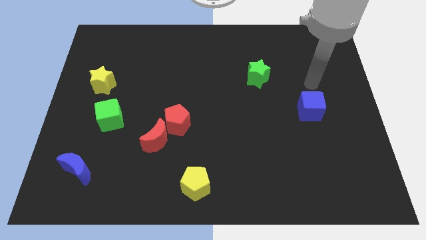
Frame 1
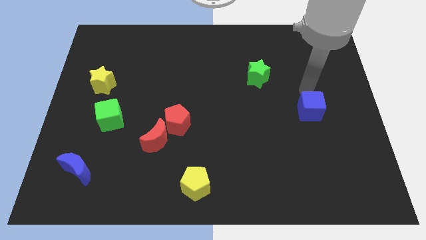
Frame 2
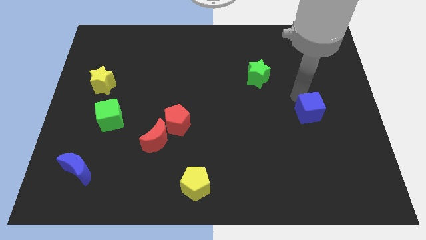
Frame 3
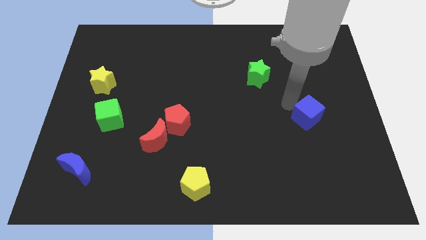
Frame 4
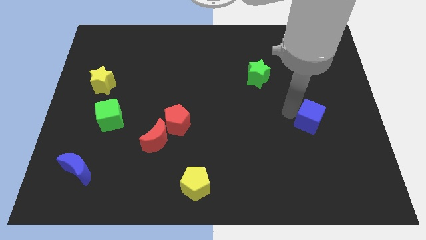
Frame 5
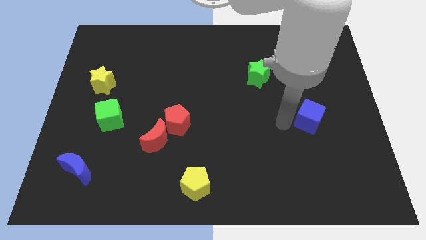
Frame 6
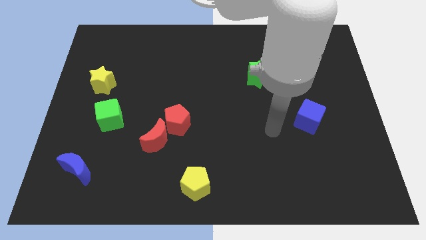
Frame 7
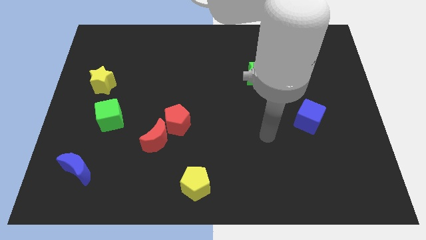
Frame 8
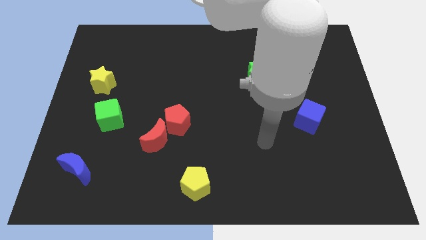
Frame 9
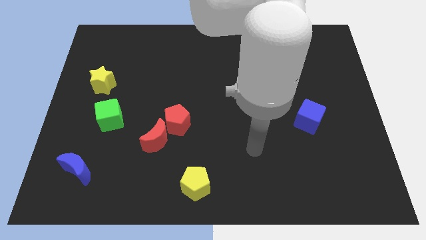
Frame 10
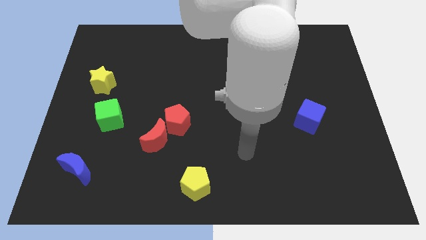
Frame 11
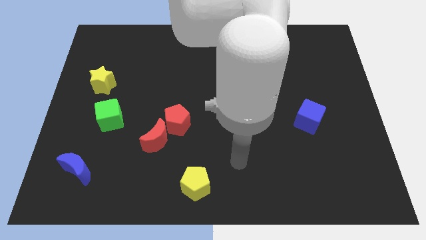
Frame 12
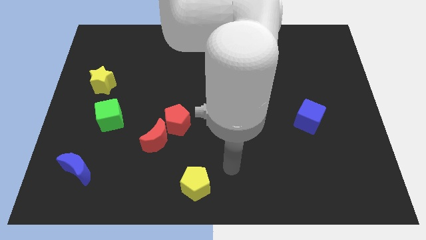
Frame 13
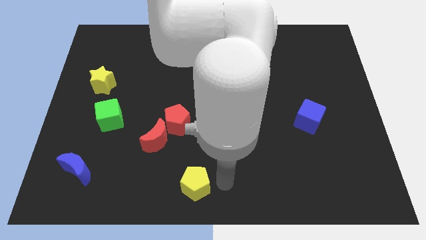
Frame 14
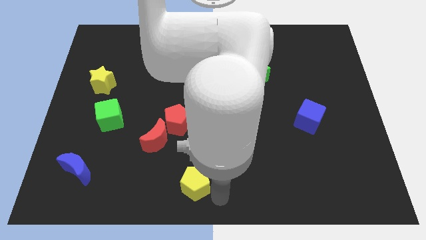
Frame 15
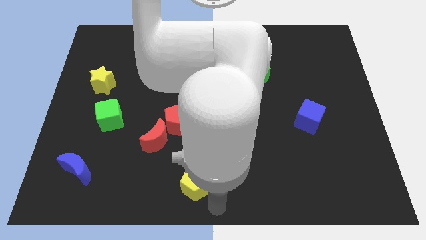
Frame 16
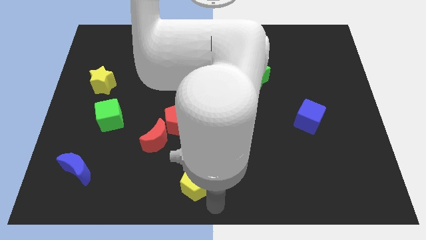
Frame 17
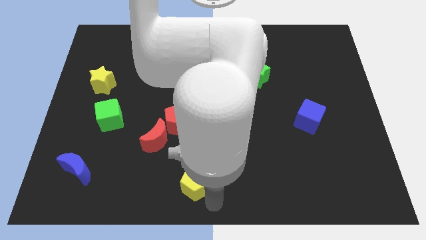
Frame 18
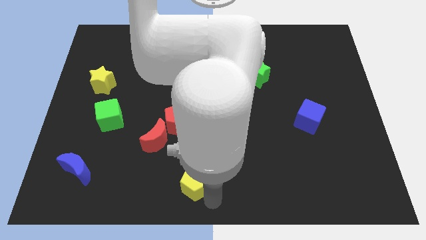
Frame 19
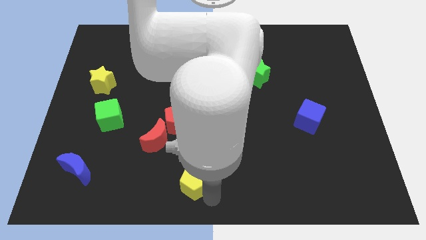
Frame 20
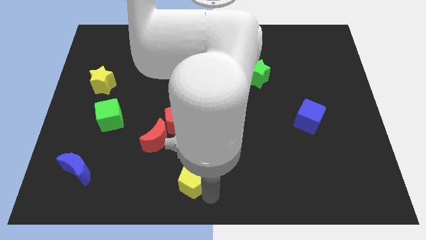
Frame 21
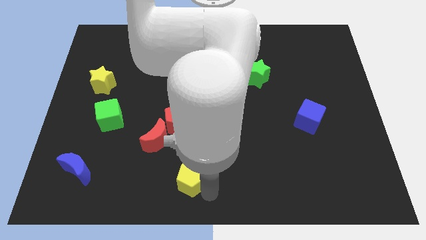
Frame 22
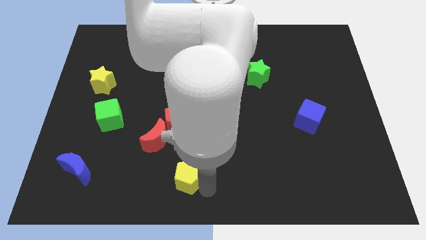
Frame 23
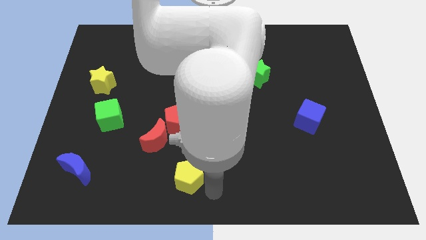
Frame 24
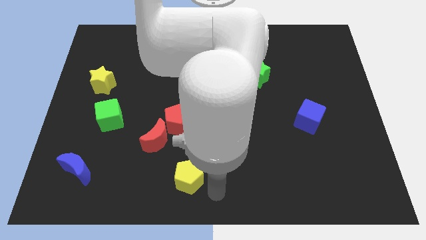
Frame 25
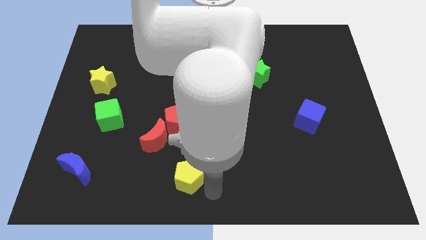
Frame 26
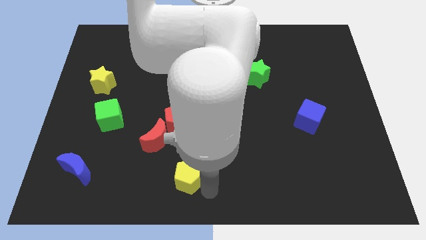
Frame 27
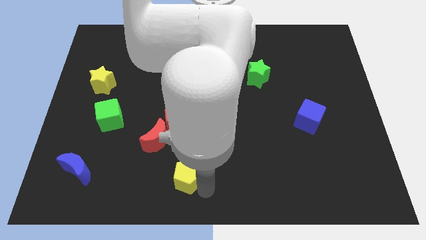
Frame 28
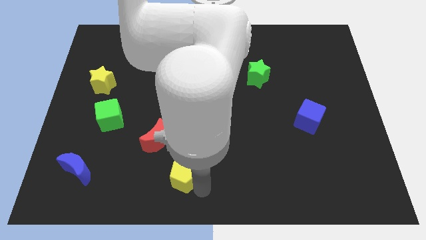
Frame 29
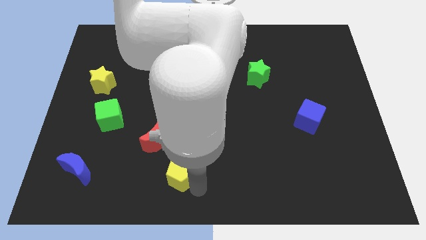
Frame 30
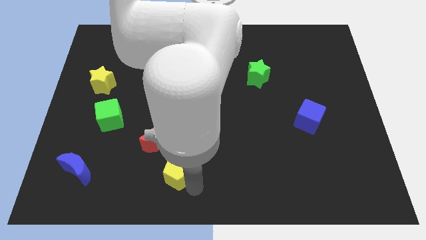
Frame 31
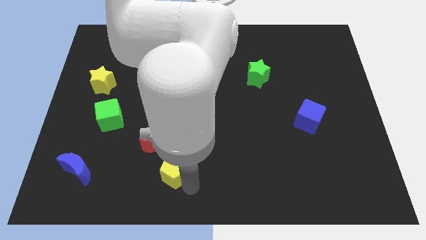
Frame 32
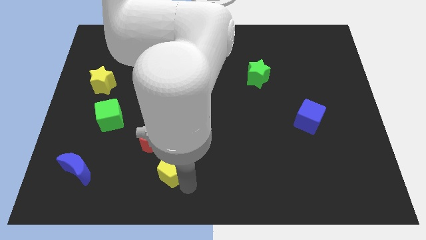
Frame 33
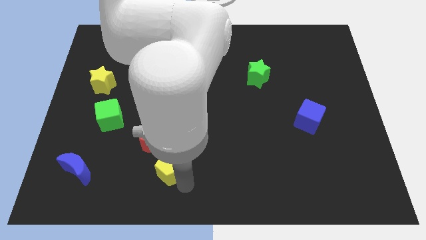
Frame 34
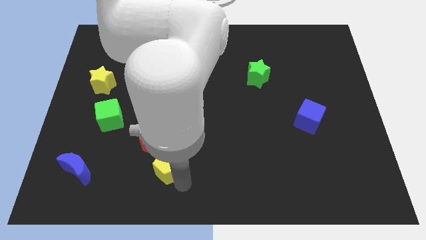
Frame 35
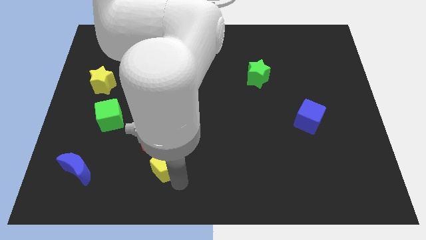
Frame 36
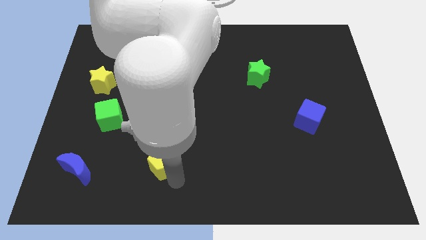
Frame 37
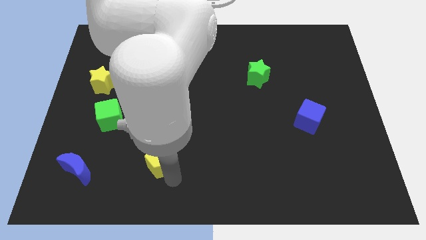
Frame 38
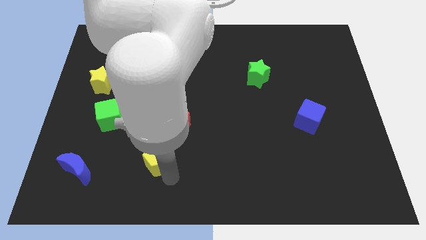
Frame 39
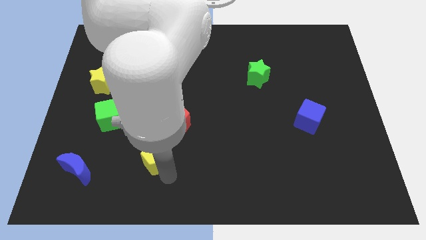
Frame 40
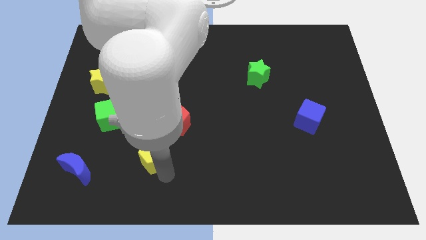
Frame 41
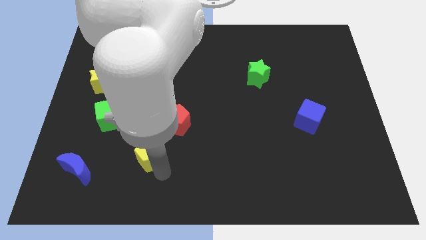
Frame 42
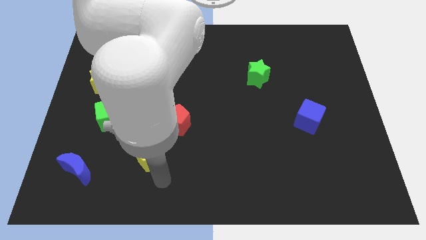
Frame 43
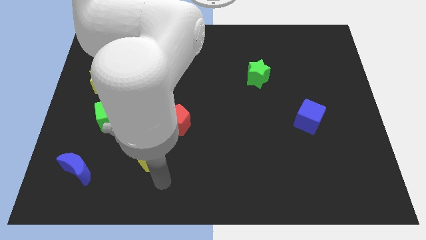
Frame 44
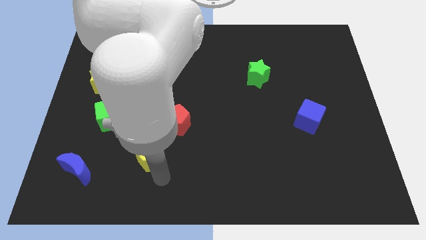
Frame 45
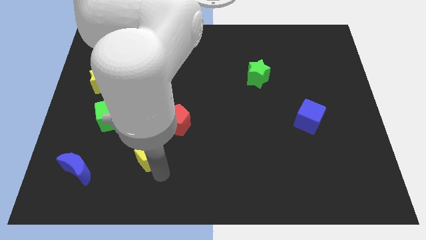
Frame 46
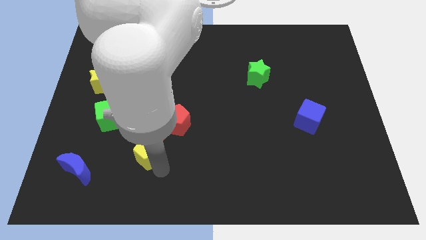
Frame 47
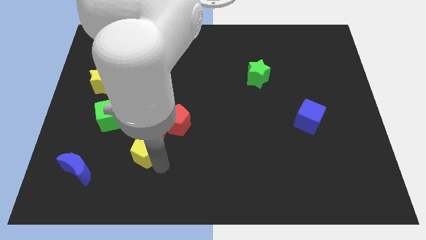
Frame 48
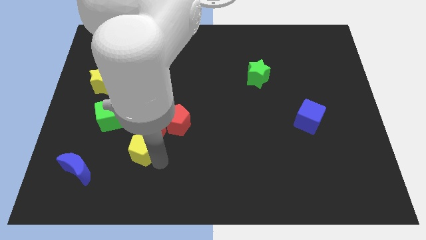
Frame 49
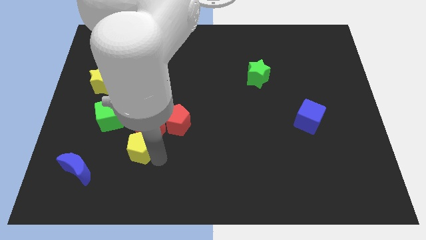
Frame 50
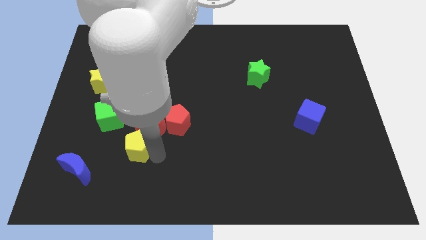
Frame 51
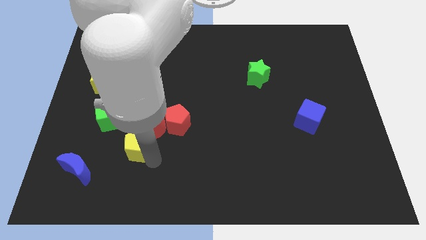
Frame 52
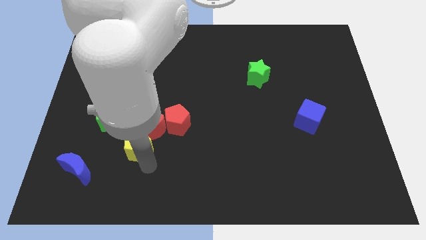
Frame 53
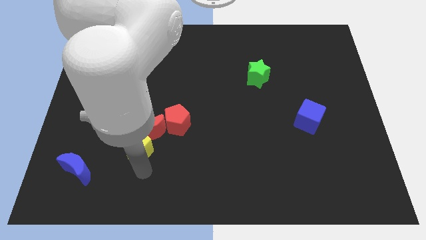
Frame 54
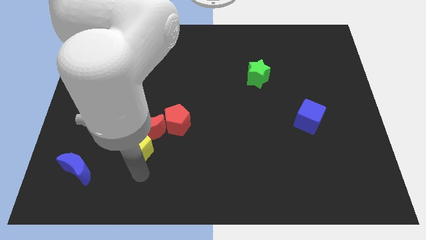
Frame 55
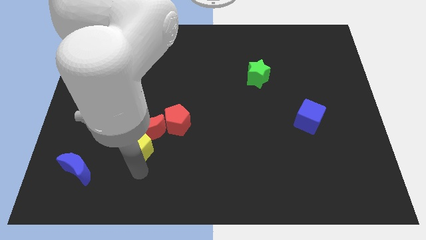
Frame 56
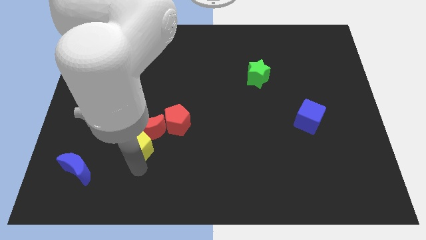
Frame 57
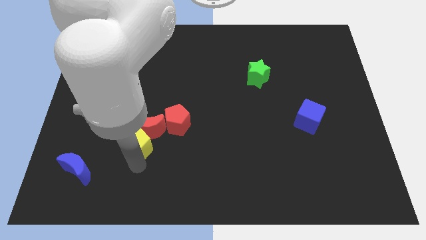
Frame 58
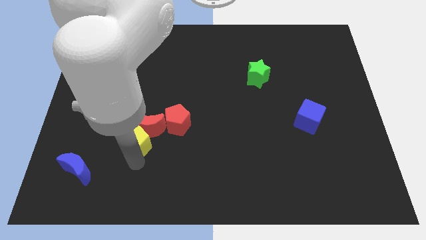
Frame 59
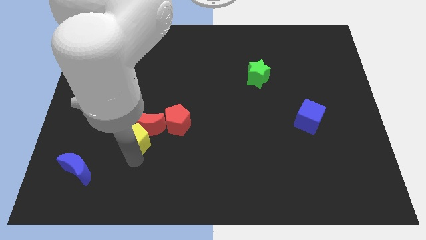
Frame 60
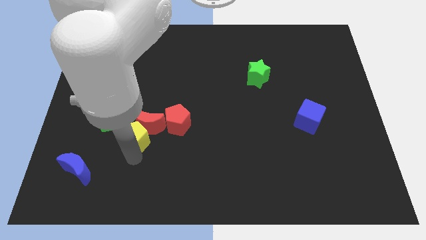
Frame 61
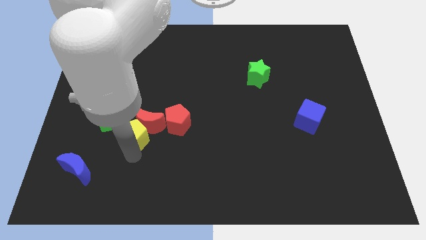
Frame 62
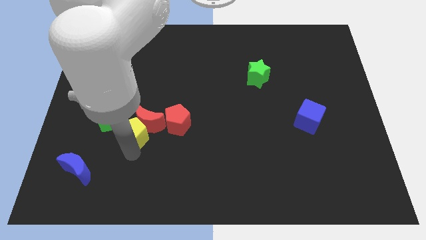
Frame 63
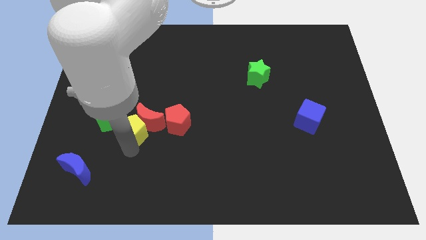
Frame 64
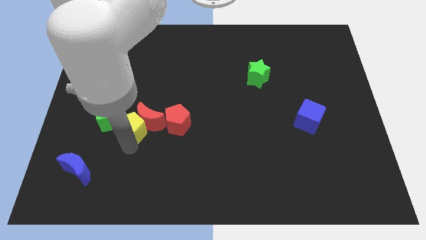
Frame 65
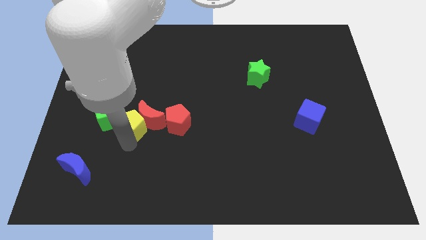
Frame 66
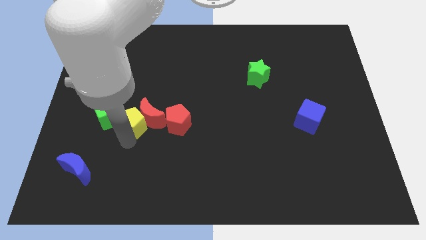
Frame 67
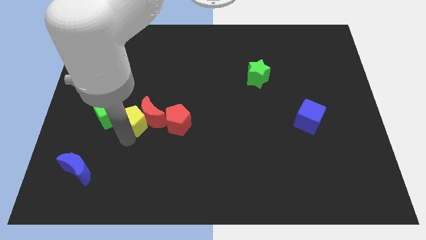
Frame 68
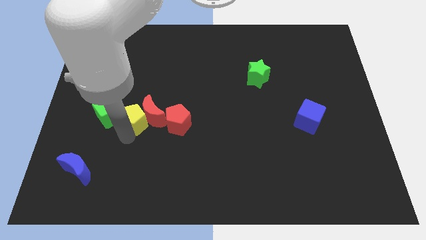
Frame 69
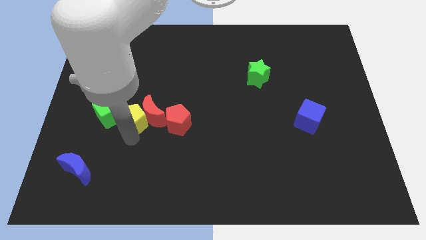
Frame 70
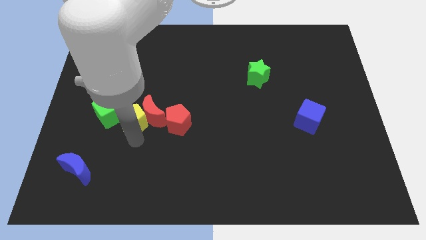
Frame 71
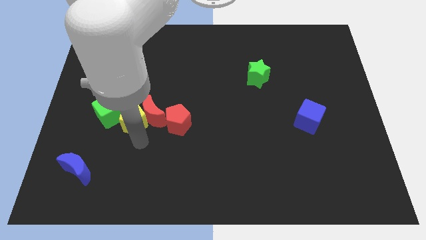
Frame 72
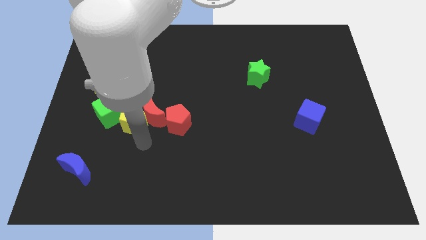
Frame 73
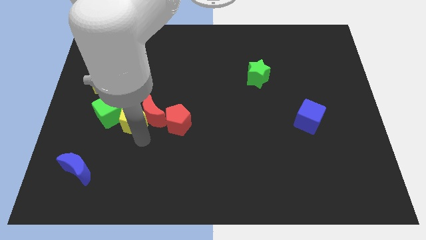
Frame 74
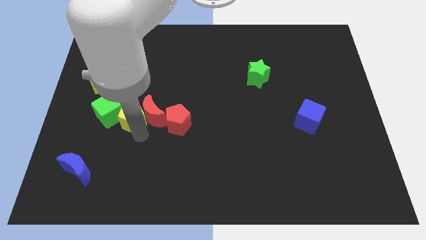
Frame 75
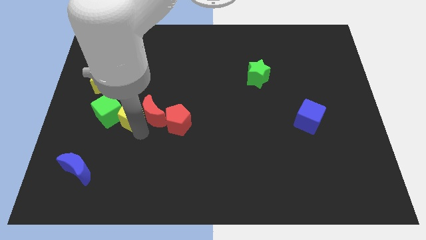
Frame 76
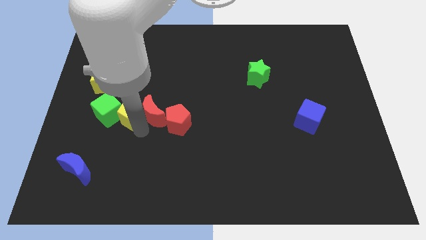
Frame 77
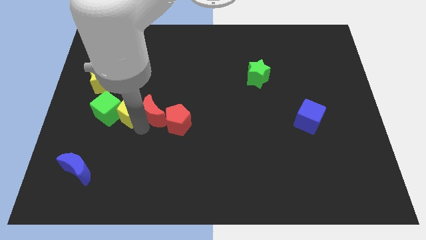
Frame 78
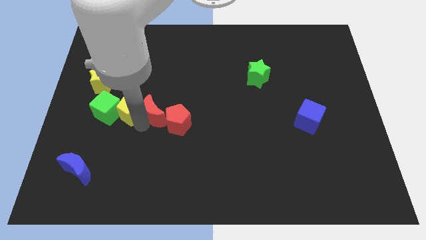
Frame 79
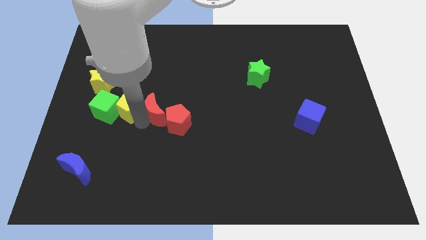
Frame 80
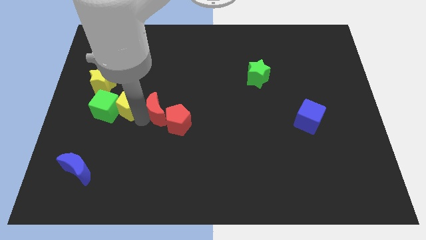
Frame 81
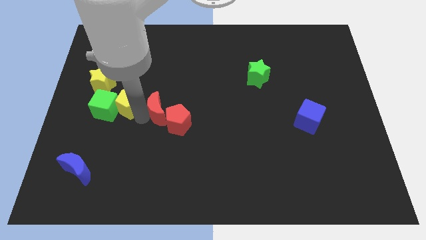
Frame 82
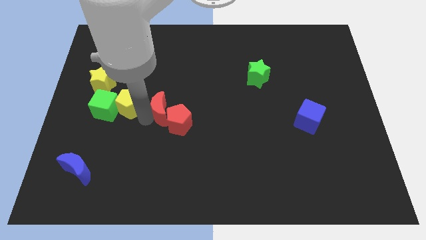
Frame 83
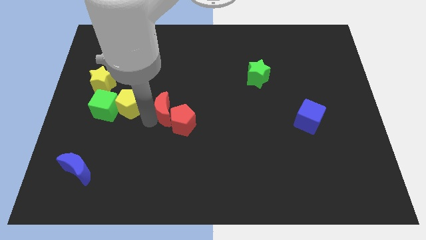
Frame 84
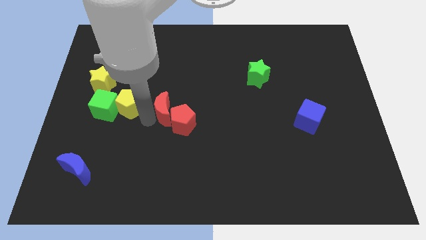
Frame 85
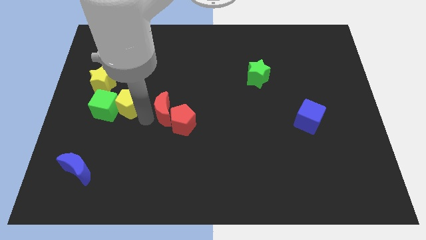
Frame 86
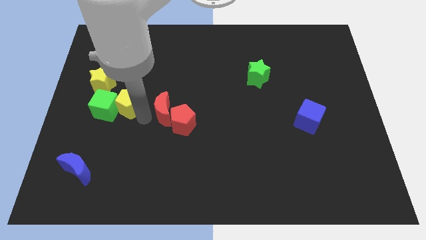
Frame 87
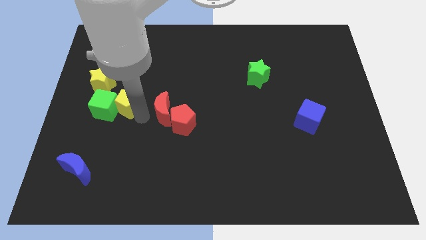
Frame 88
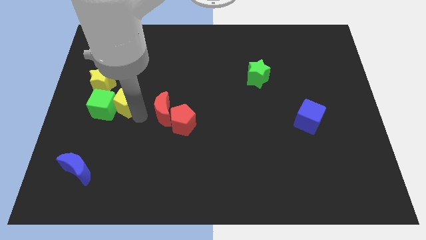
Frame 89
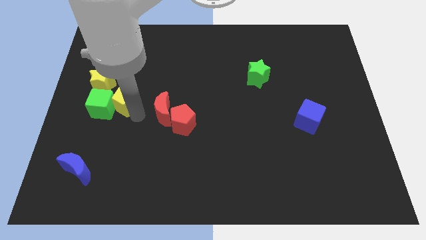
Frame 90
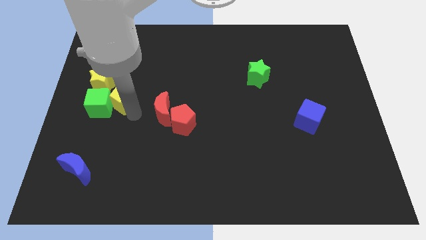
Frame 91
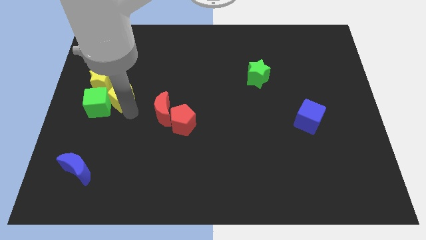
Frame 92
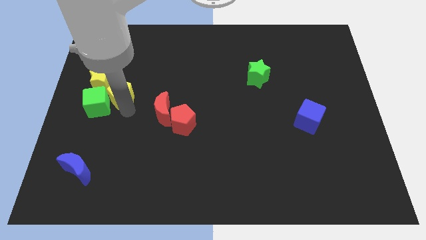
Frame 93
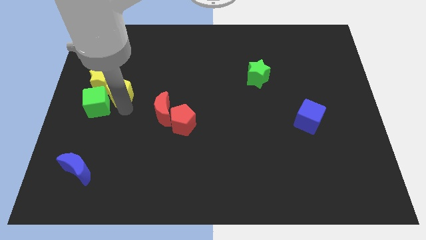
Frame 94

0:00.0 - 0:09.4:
put the yellow pentagon towards the yellow star
